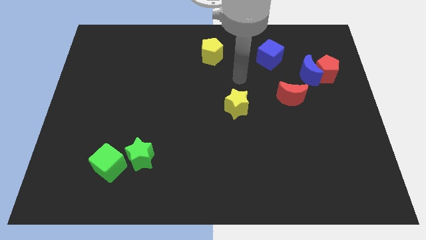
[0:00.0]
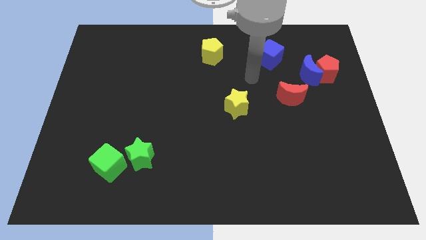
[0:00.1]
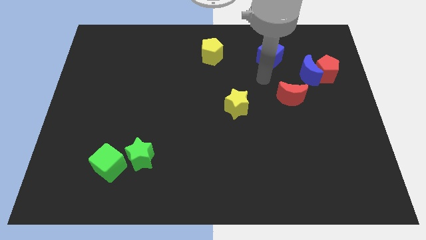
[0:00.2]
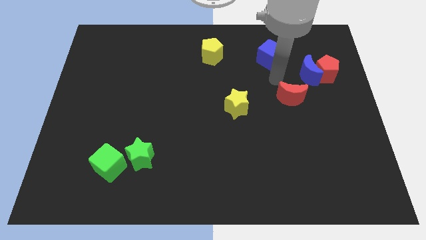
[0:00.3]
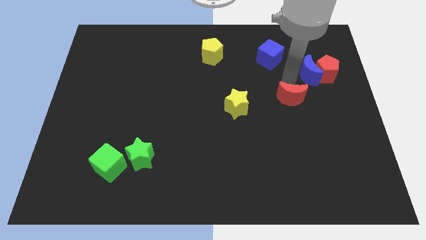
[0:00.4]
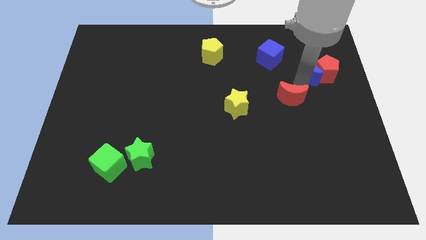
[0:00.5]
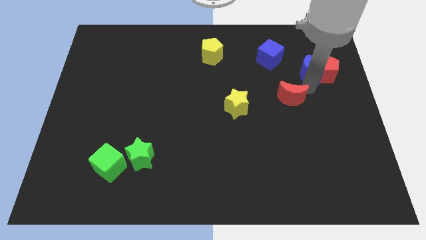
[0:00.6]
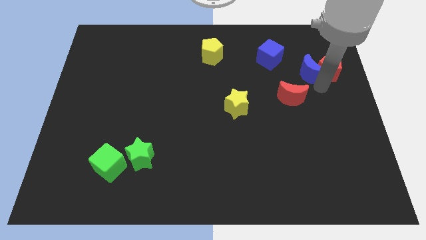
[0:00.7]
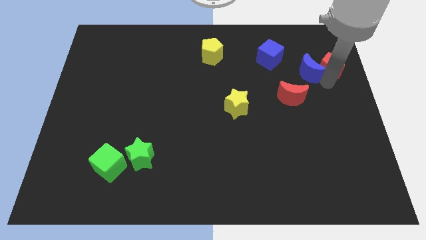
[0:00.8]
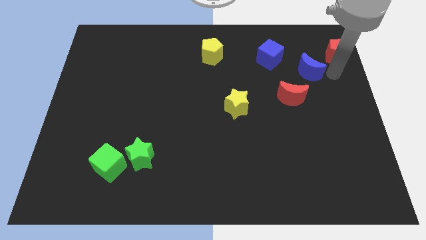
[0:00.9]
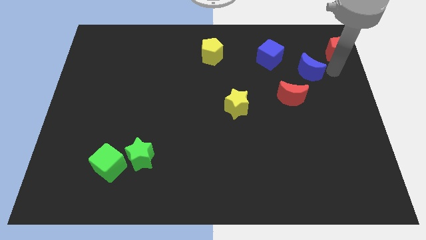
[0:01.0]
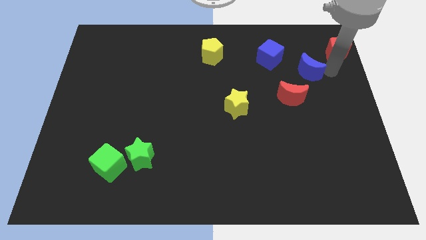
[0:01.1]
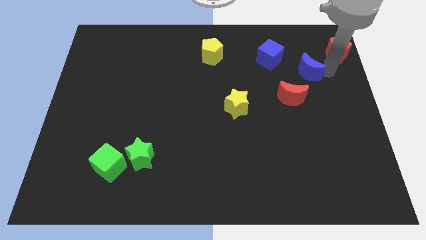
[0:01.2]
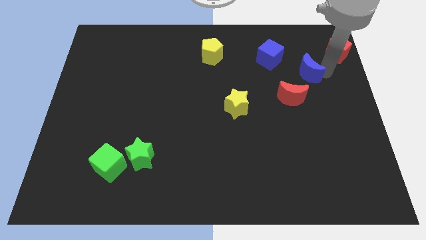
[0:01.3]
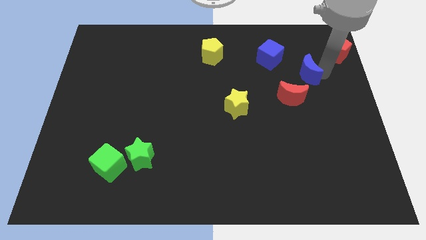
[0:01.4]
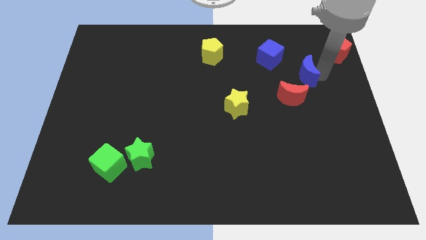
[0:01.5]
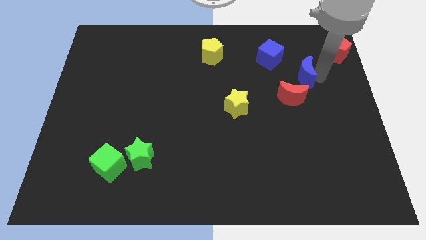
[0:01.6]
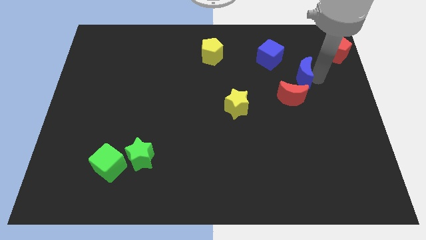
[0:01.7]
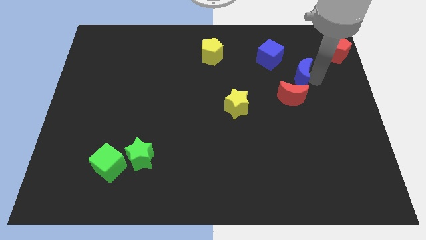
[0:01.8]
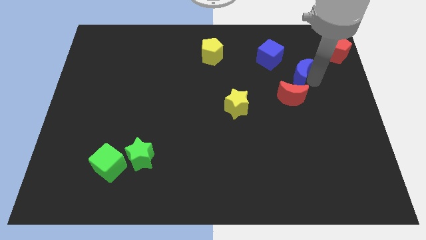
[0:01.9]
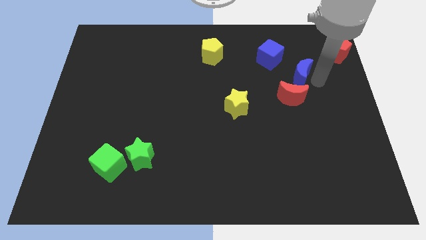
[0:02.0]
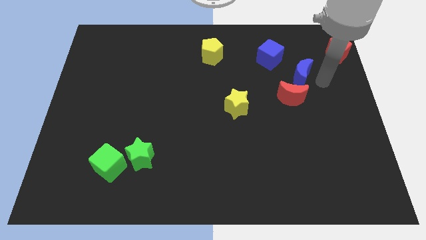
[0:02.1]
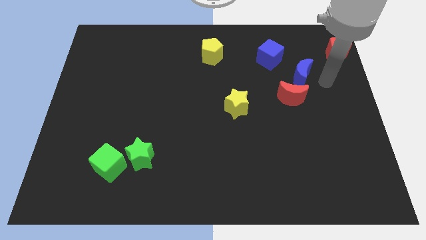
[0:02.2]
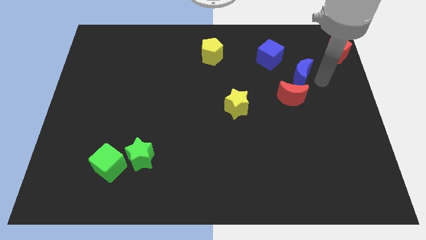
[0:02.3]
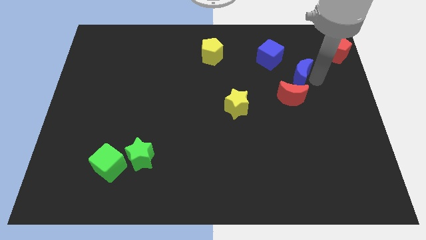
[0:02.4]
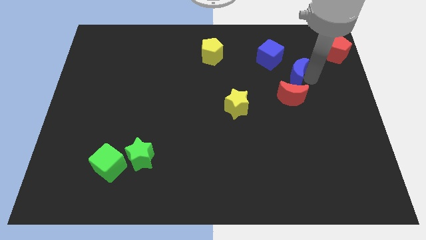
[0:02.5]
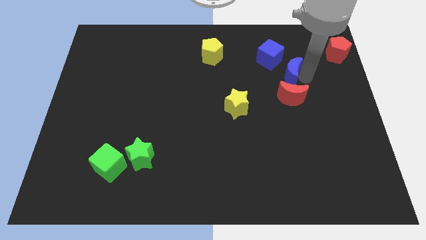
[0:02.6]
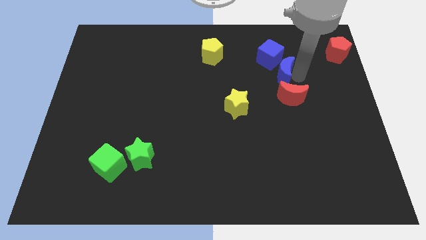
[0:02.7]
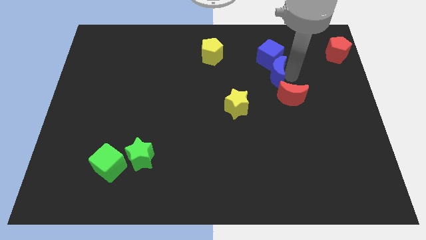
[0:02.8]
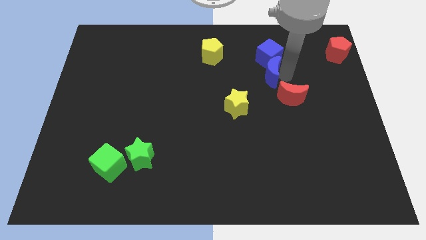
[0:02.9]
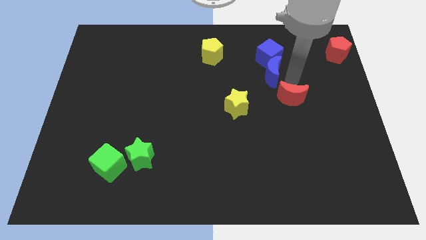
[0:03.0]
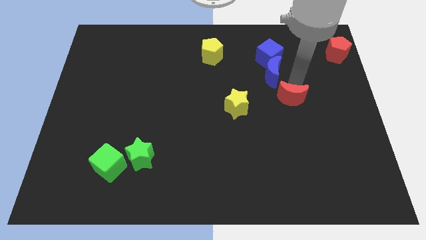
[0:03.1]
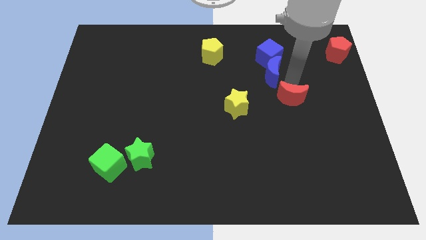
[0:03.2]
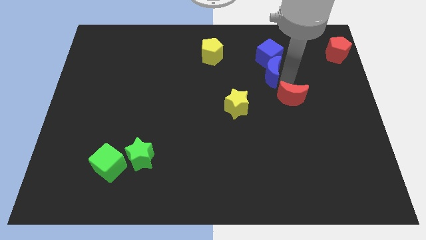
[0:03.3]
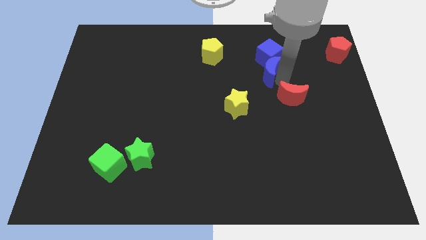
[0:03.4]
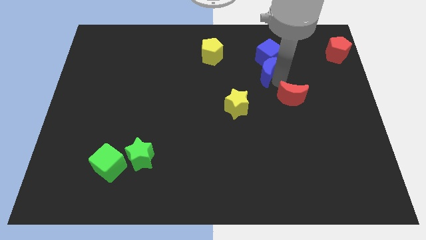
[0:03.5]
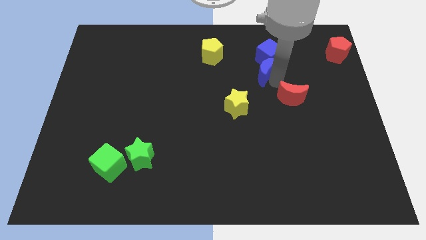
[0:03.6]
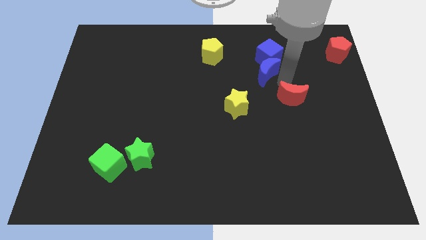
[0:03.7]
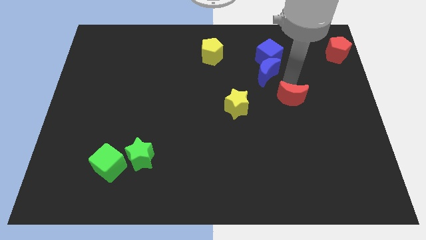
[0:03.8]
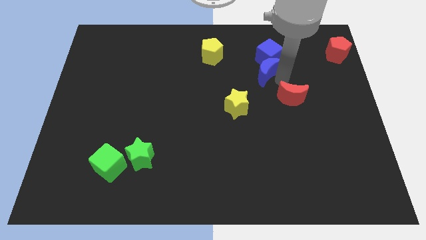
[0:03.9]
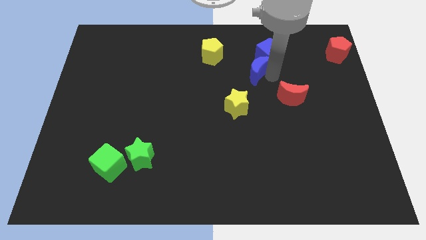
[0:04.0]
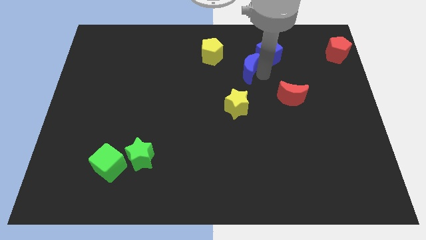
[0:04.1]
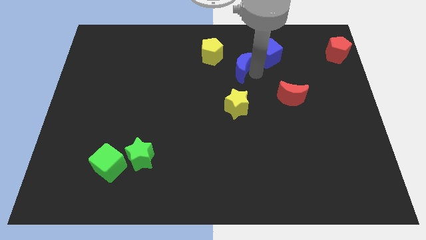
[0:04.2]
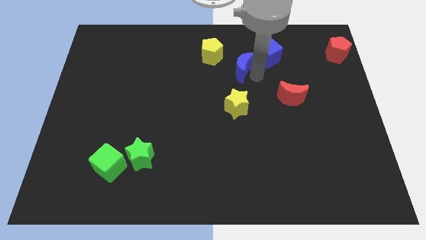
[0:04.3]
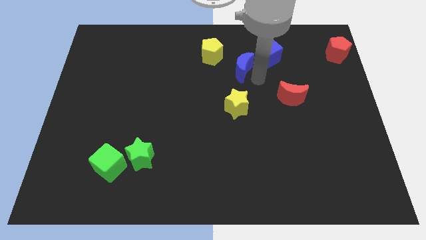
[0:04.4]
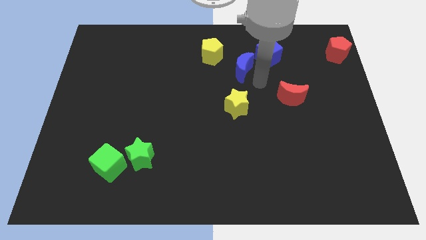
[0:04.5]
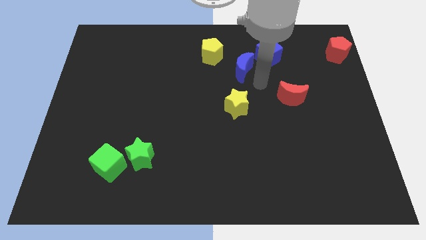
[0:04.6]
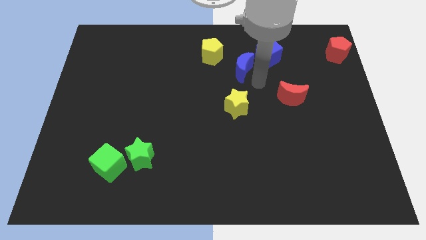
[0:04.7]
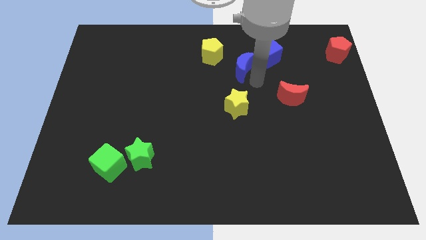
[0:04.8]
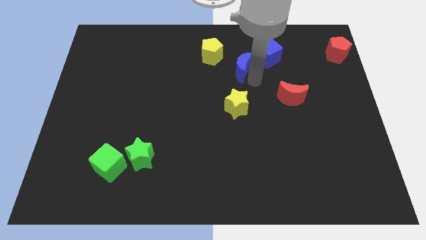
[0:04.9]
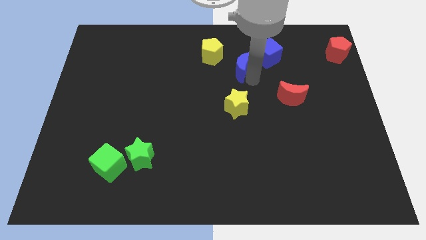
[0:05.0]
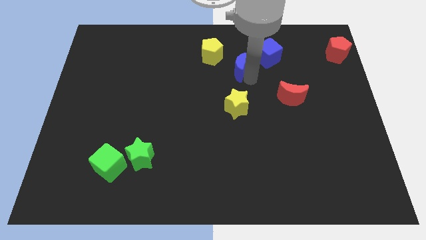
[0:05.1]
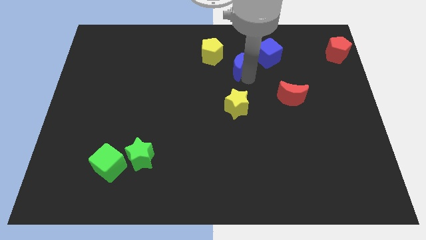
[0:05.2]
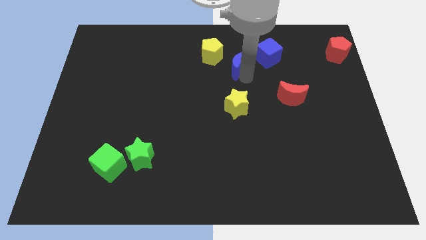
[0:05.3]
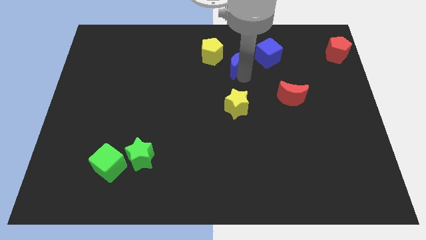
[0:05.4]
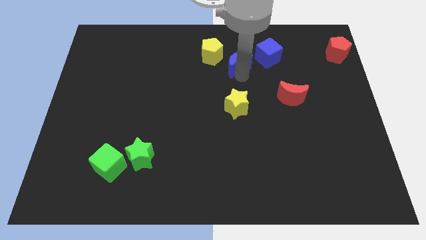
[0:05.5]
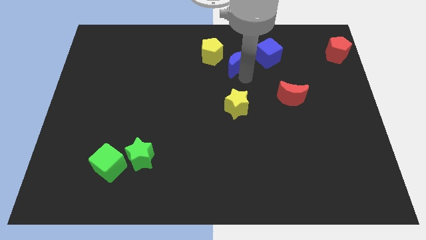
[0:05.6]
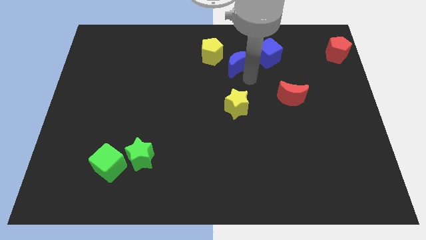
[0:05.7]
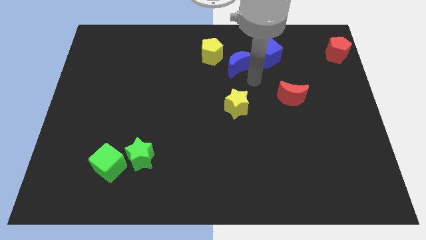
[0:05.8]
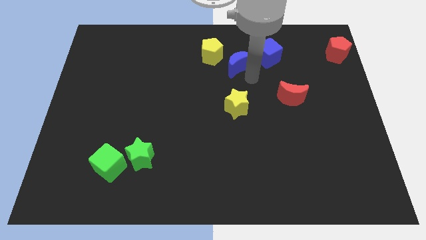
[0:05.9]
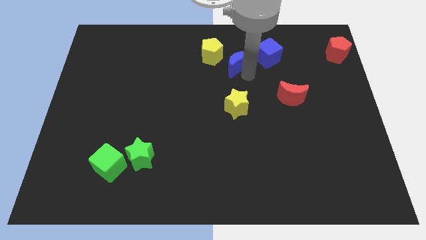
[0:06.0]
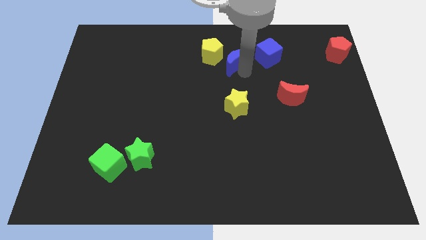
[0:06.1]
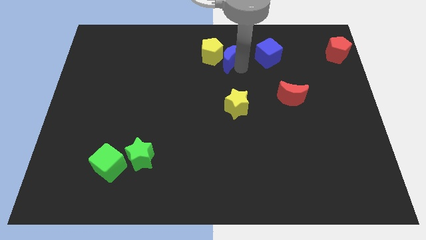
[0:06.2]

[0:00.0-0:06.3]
slide the blue moon towards the yellow pentagon

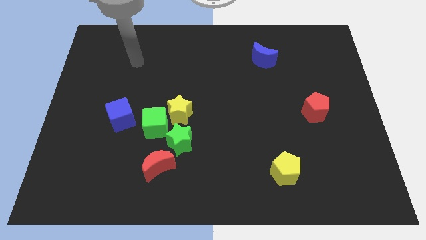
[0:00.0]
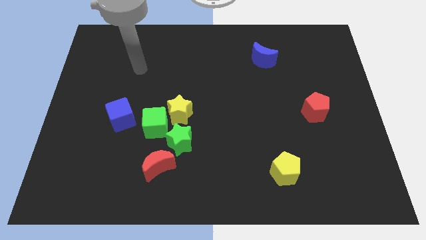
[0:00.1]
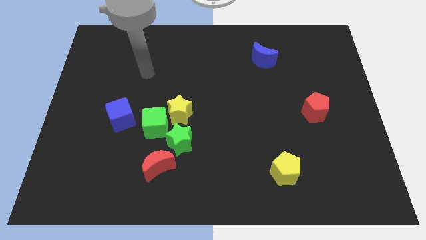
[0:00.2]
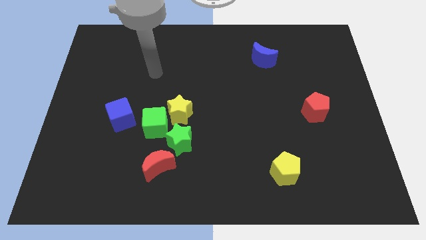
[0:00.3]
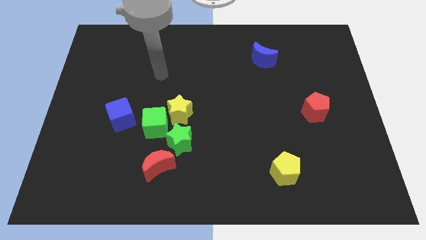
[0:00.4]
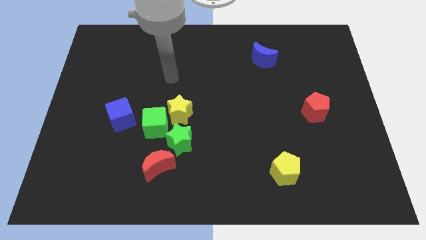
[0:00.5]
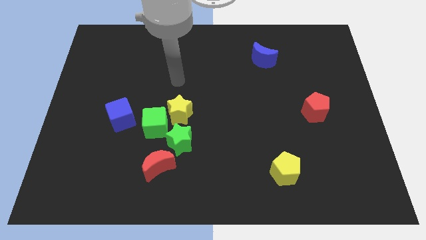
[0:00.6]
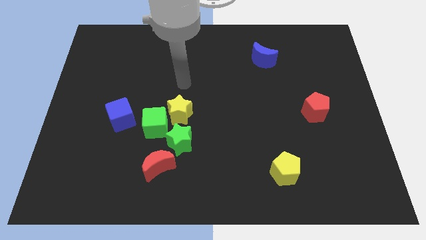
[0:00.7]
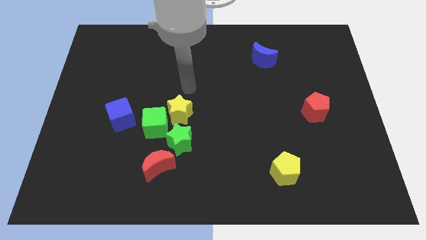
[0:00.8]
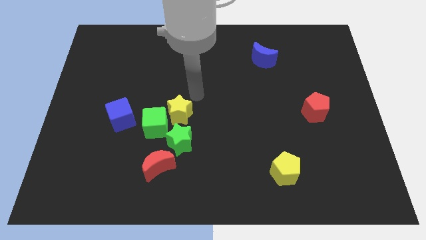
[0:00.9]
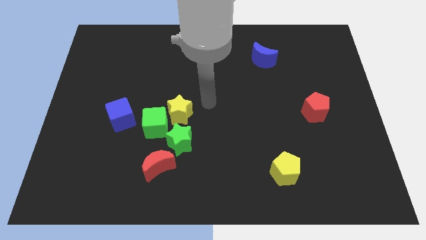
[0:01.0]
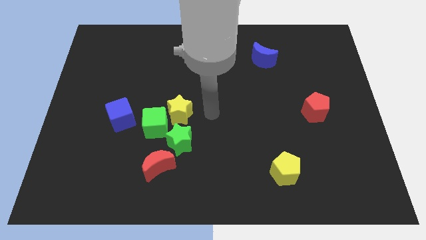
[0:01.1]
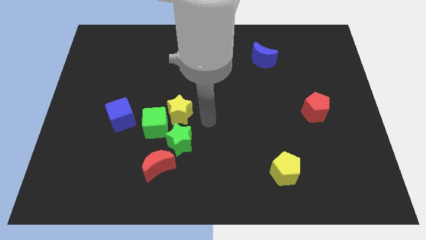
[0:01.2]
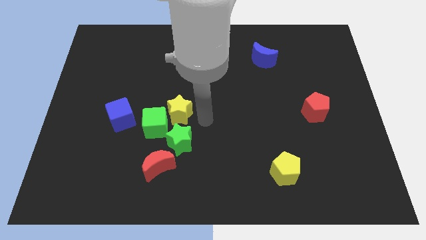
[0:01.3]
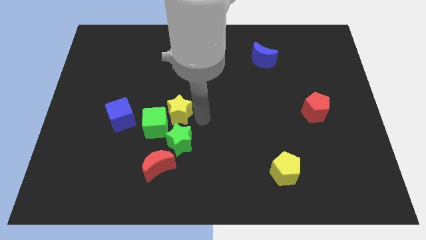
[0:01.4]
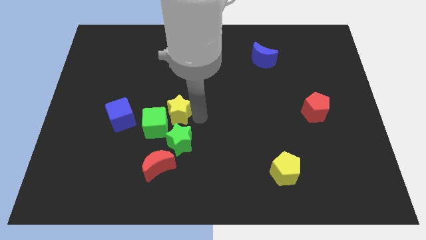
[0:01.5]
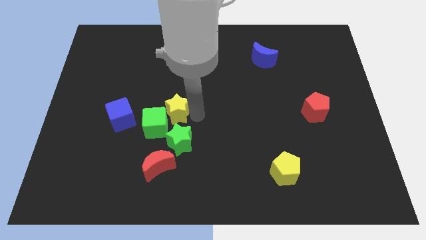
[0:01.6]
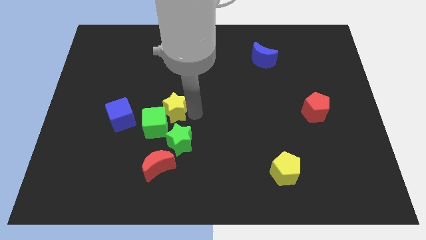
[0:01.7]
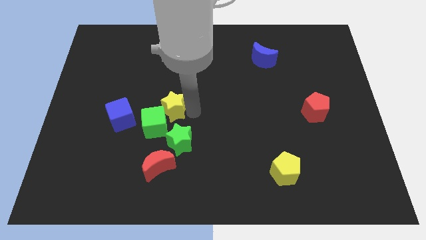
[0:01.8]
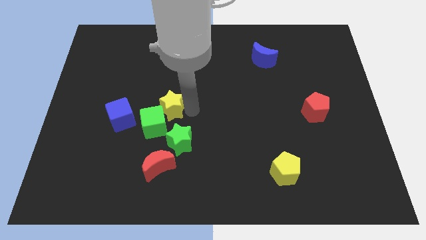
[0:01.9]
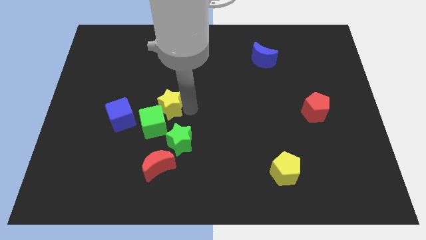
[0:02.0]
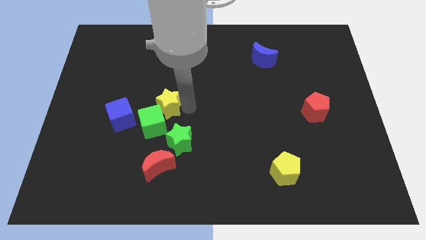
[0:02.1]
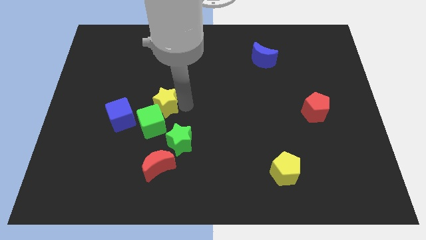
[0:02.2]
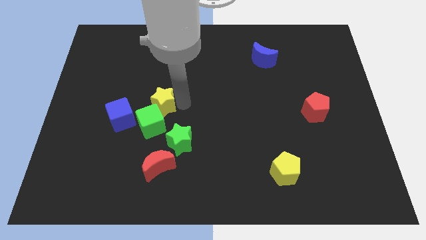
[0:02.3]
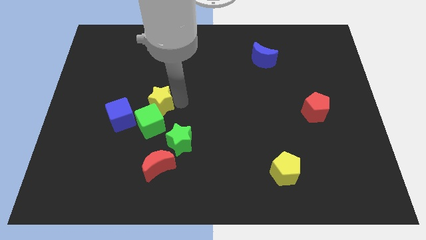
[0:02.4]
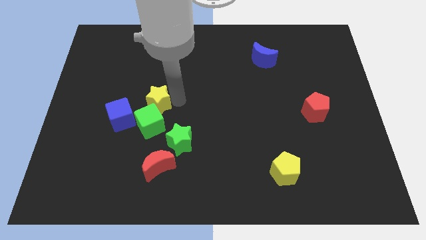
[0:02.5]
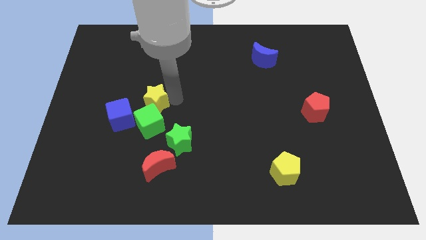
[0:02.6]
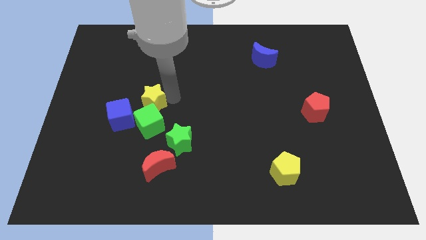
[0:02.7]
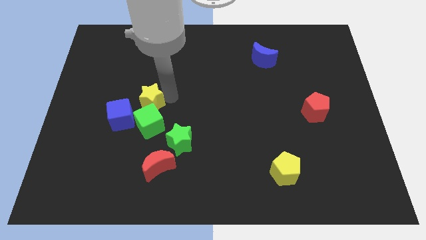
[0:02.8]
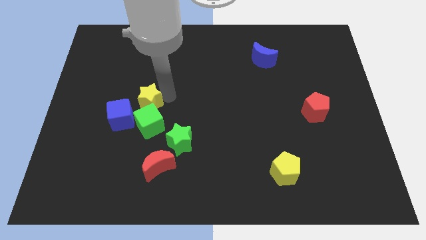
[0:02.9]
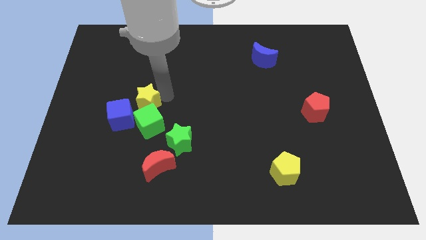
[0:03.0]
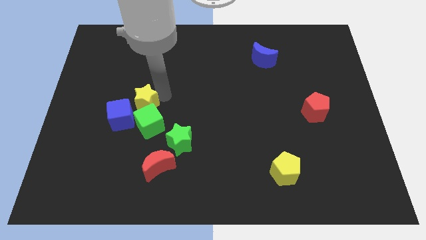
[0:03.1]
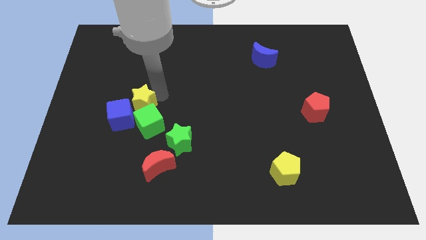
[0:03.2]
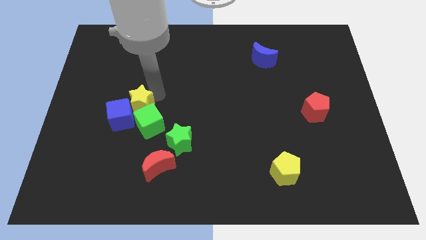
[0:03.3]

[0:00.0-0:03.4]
push the yellow star next to the blue cube
